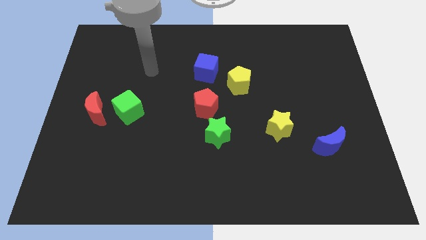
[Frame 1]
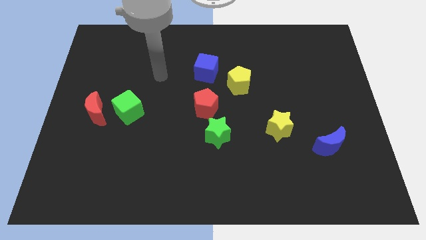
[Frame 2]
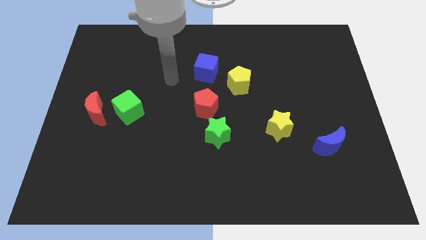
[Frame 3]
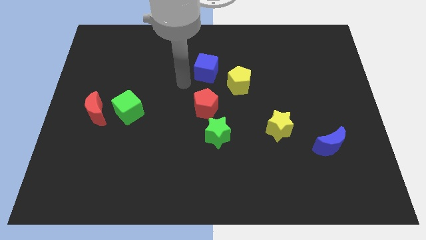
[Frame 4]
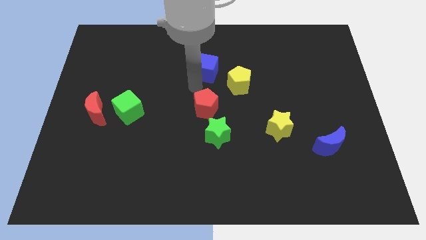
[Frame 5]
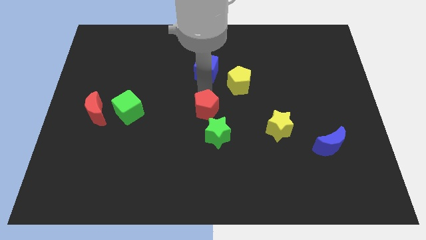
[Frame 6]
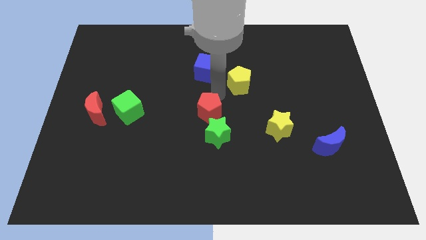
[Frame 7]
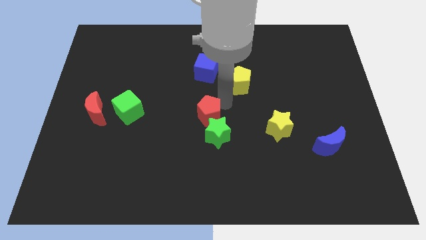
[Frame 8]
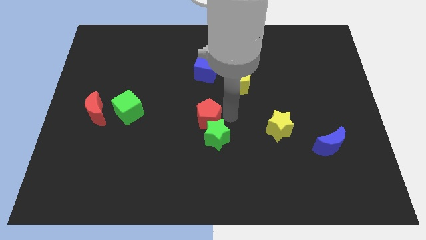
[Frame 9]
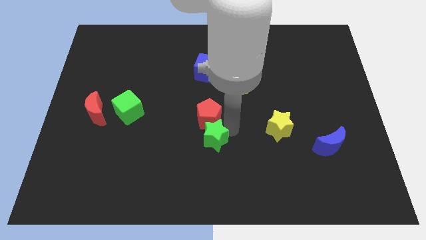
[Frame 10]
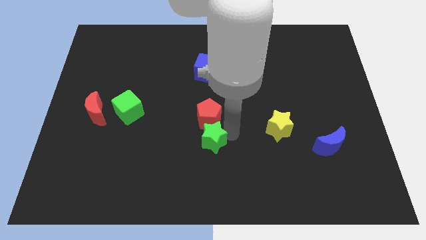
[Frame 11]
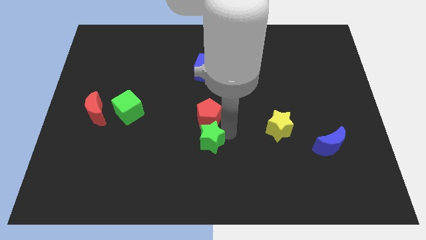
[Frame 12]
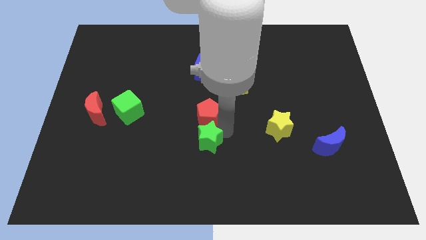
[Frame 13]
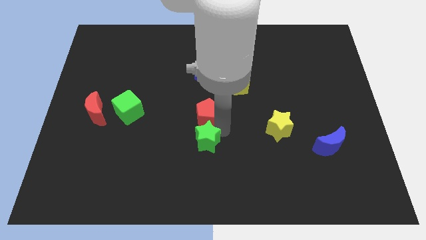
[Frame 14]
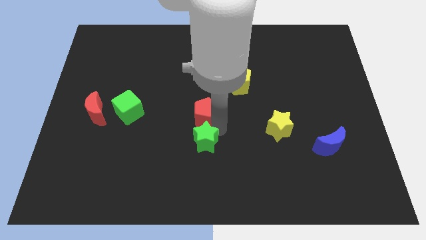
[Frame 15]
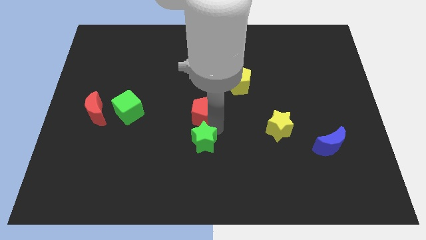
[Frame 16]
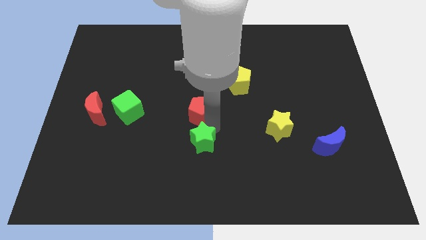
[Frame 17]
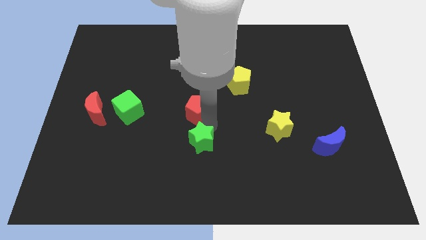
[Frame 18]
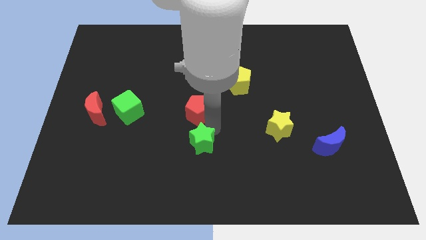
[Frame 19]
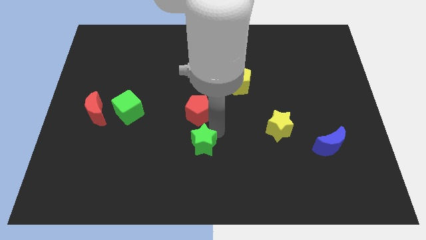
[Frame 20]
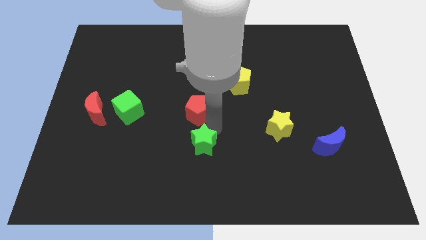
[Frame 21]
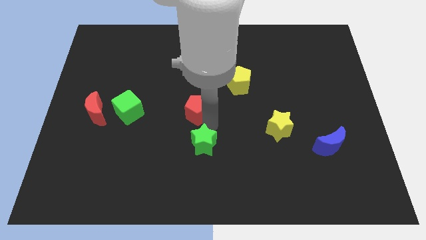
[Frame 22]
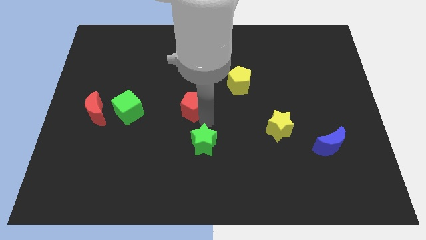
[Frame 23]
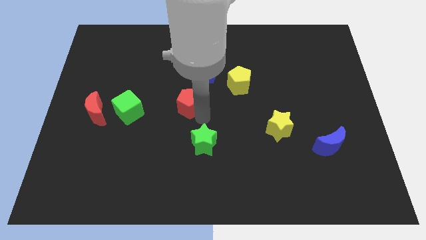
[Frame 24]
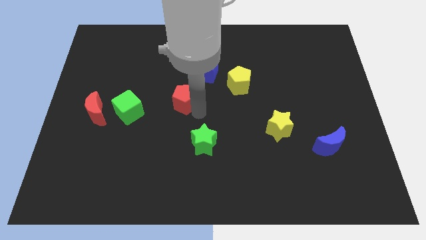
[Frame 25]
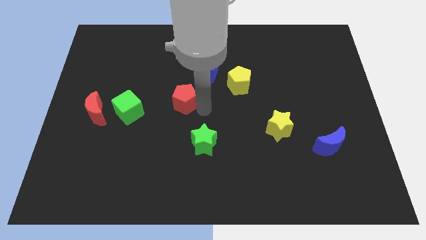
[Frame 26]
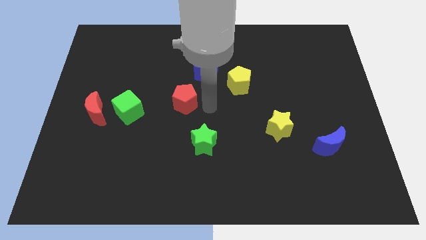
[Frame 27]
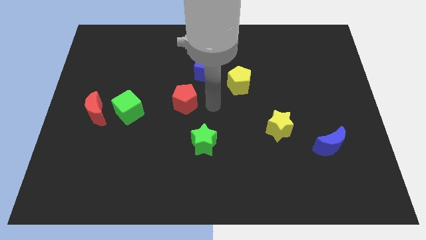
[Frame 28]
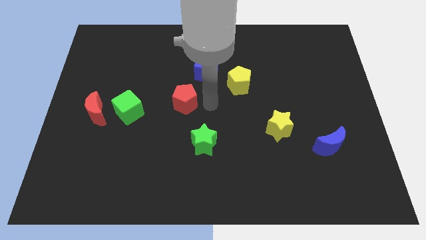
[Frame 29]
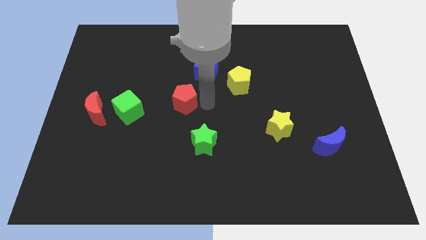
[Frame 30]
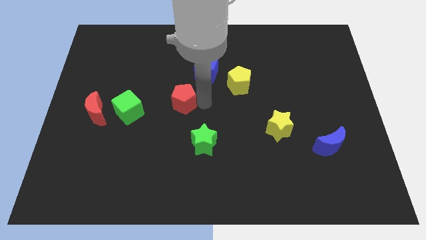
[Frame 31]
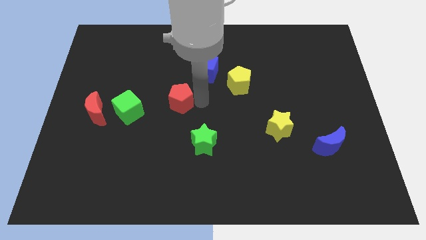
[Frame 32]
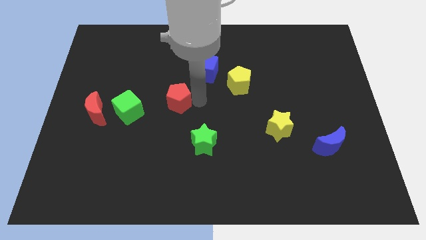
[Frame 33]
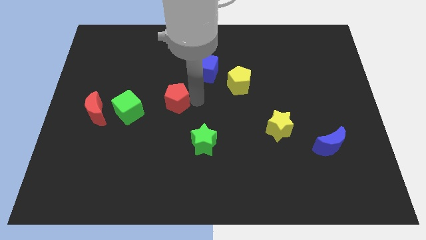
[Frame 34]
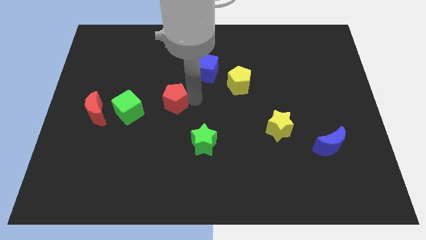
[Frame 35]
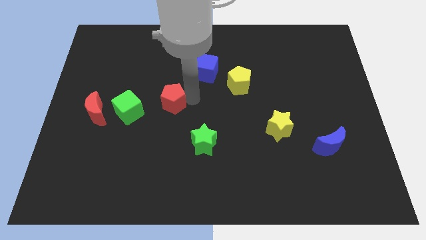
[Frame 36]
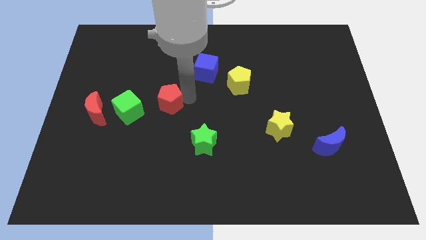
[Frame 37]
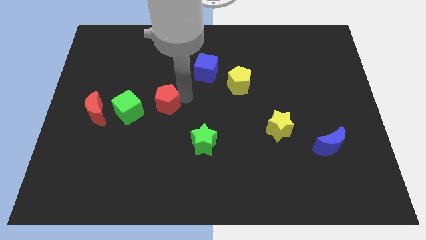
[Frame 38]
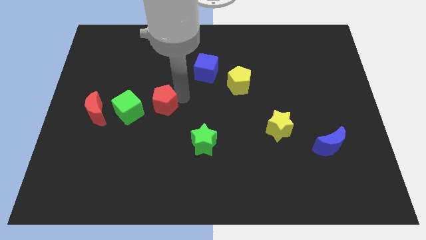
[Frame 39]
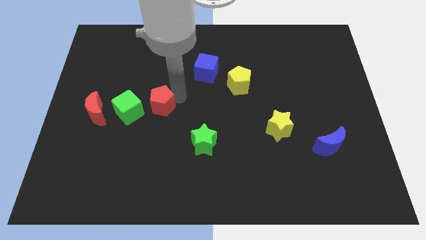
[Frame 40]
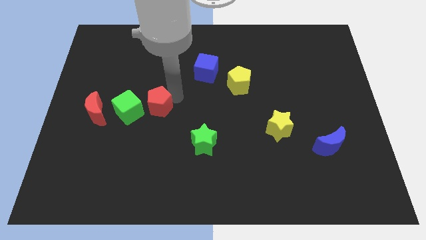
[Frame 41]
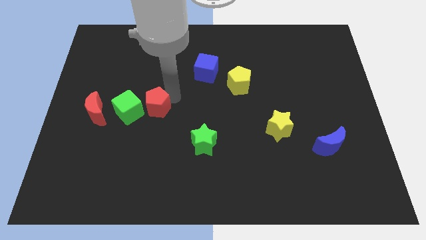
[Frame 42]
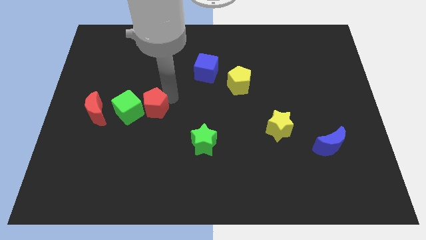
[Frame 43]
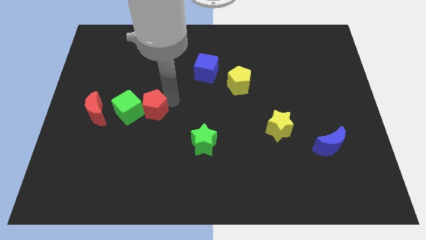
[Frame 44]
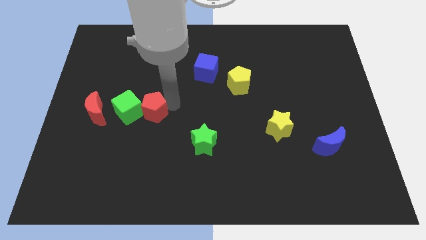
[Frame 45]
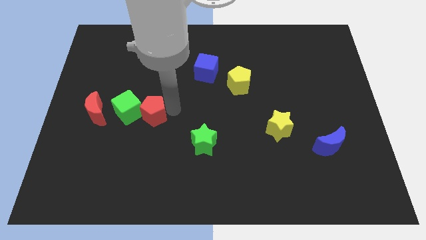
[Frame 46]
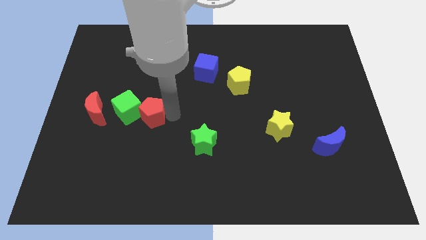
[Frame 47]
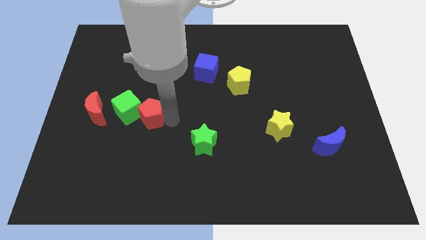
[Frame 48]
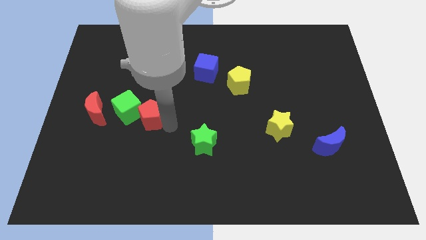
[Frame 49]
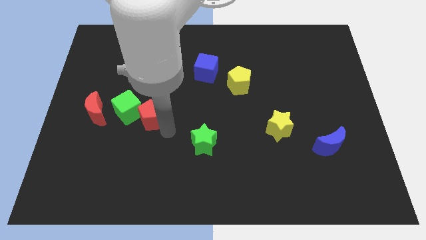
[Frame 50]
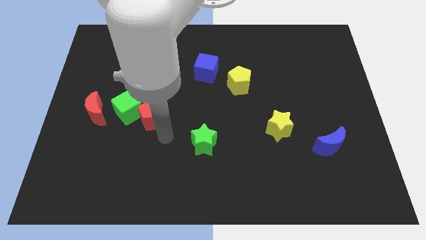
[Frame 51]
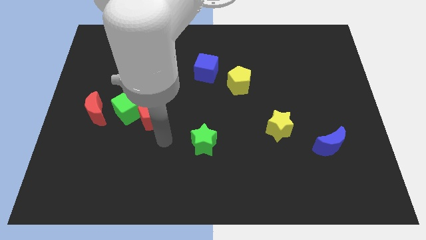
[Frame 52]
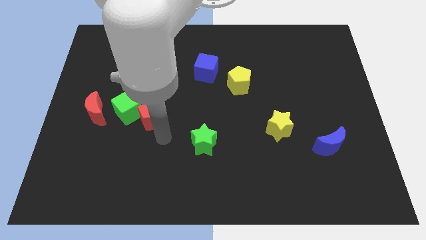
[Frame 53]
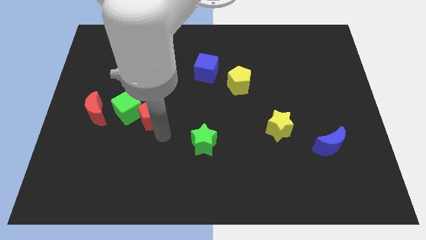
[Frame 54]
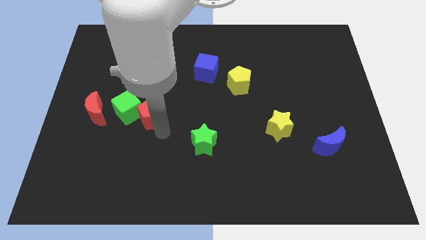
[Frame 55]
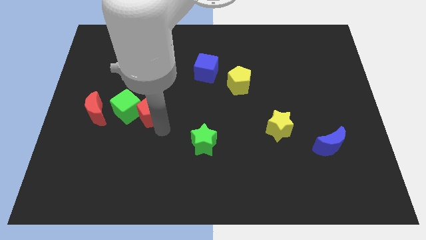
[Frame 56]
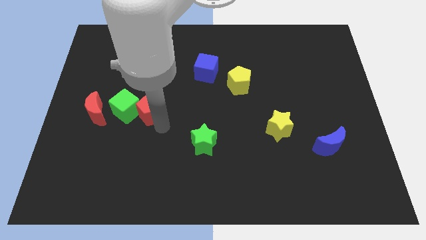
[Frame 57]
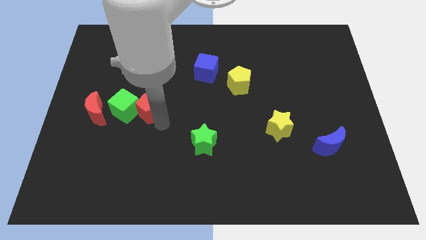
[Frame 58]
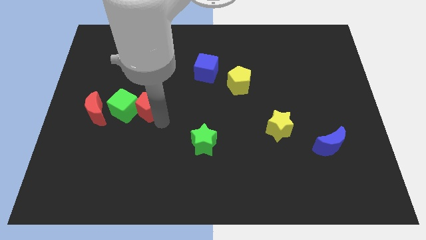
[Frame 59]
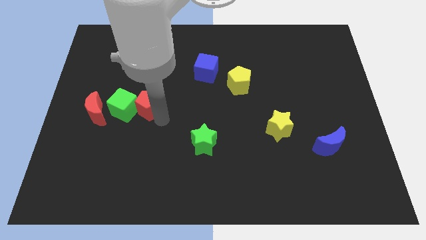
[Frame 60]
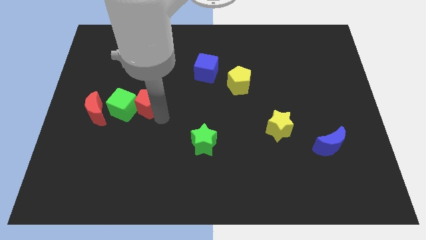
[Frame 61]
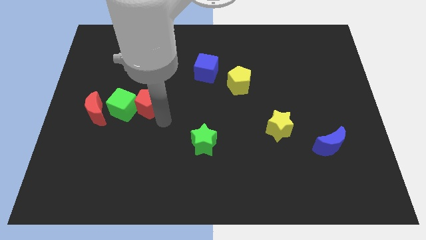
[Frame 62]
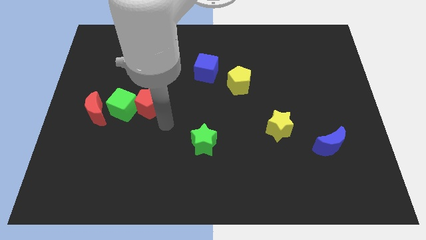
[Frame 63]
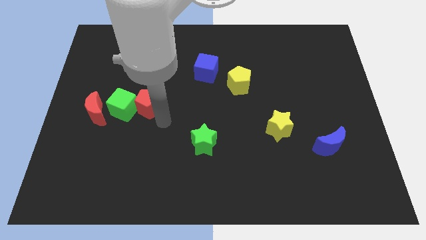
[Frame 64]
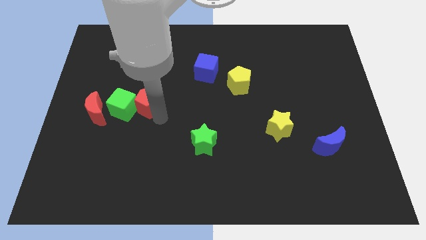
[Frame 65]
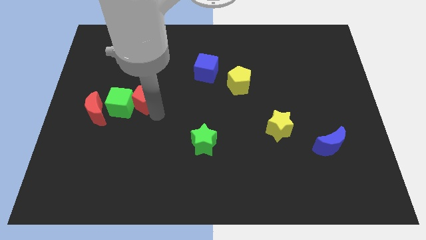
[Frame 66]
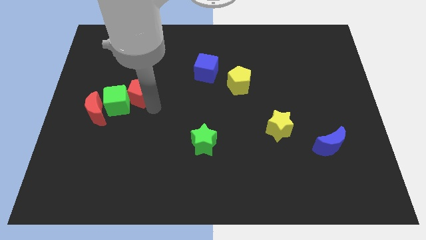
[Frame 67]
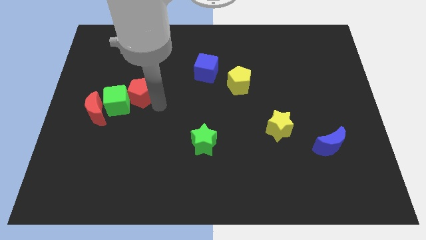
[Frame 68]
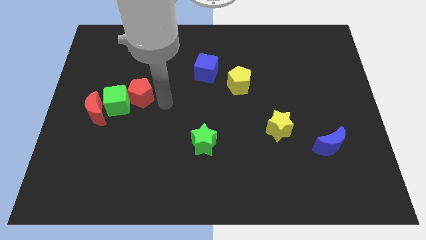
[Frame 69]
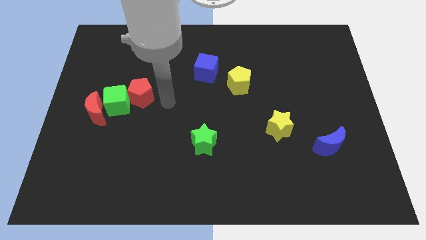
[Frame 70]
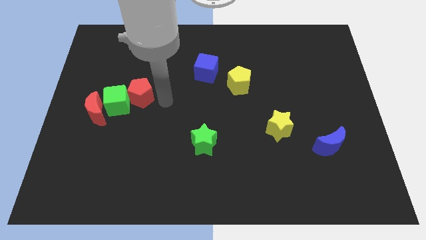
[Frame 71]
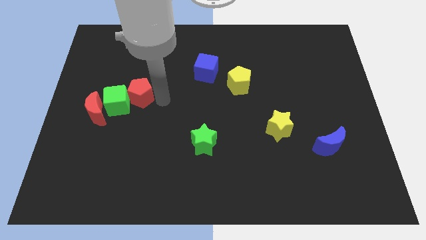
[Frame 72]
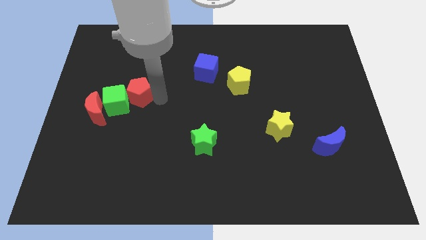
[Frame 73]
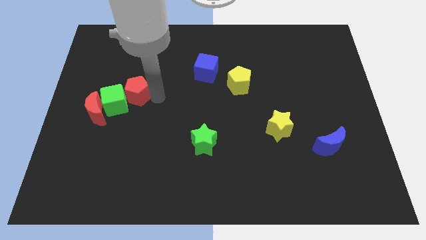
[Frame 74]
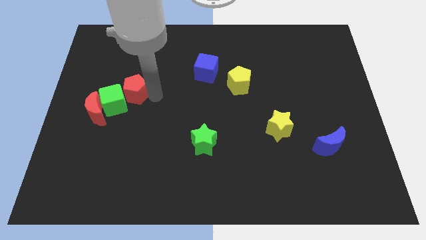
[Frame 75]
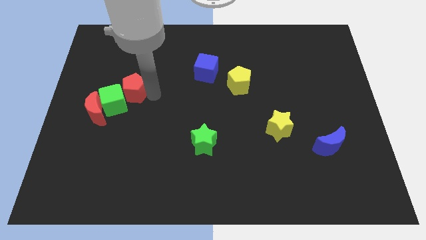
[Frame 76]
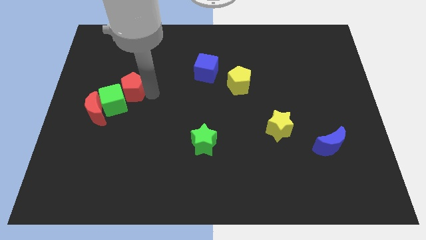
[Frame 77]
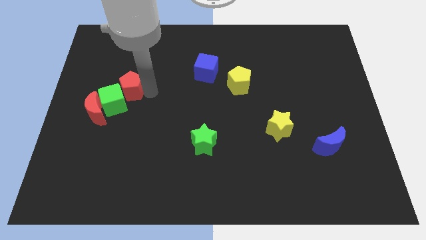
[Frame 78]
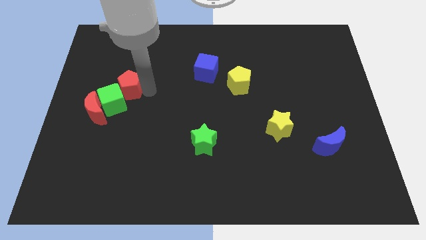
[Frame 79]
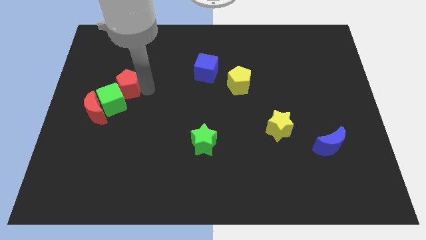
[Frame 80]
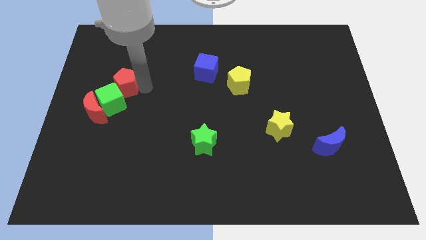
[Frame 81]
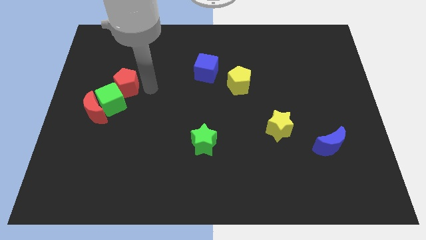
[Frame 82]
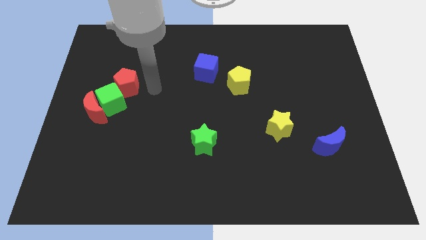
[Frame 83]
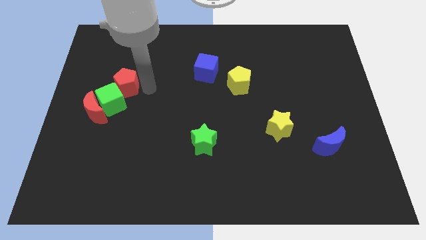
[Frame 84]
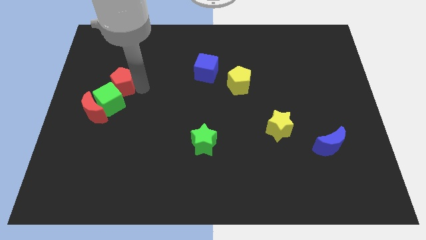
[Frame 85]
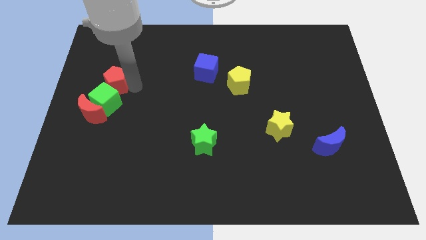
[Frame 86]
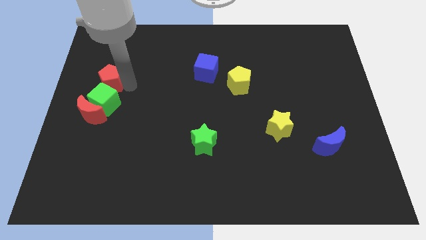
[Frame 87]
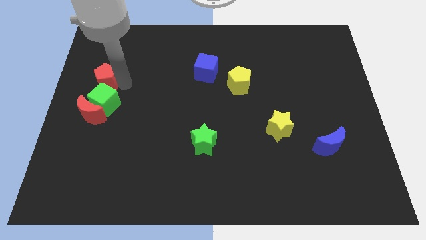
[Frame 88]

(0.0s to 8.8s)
move the red pentagon to the left side of the board
